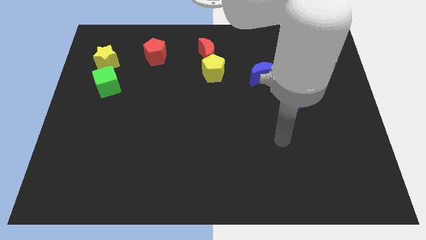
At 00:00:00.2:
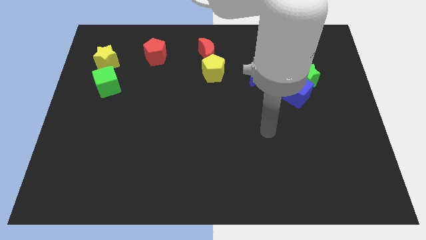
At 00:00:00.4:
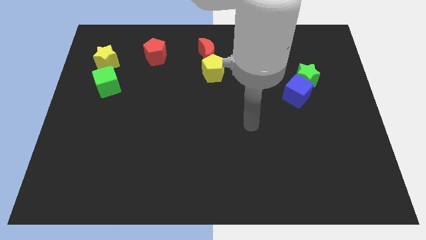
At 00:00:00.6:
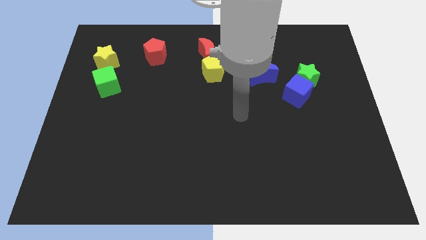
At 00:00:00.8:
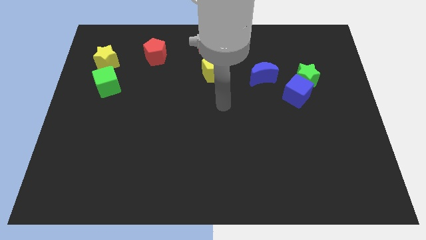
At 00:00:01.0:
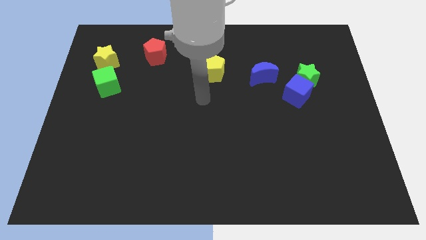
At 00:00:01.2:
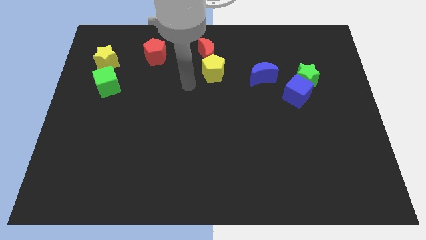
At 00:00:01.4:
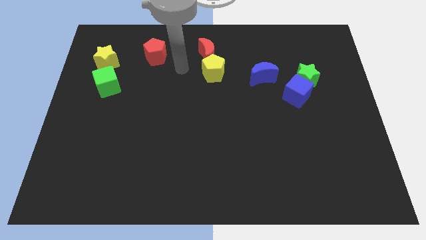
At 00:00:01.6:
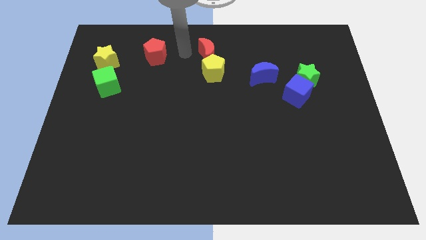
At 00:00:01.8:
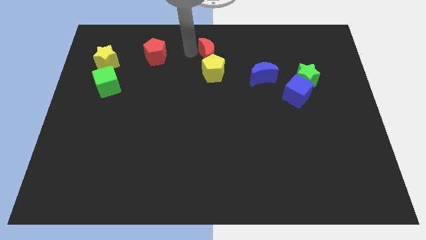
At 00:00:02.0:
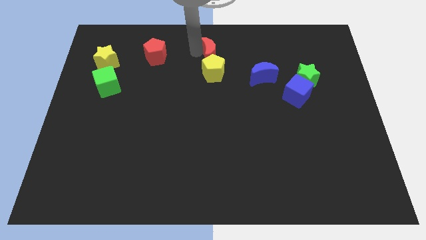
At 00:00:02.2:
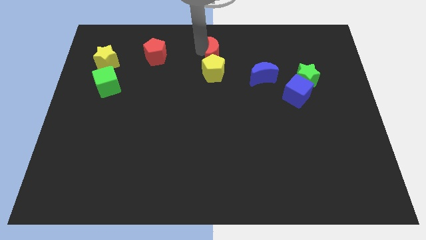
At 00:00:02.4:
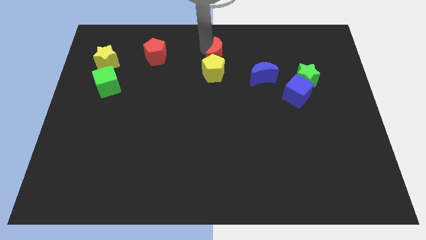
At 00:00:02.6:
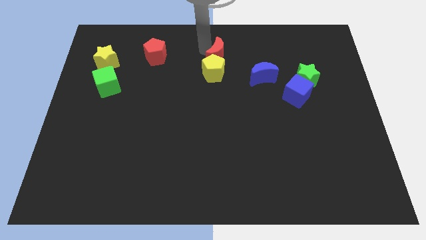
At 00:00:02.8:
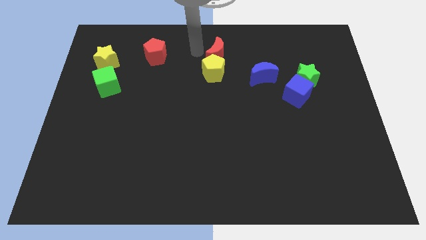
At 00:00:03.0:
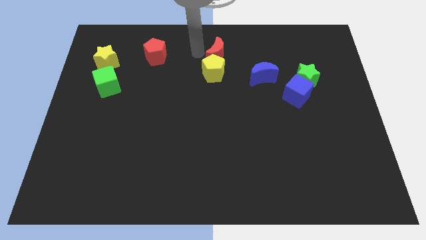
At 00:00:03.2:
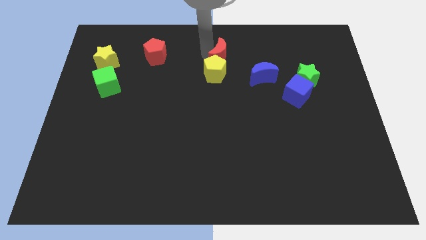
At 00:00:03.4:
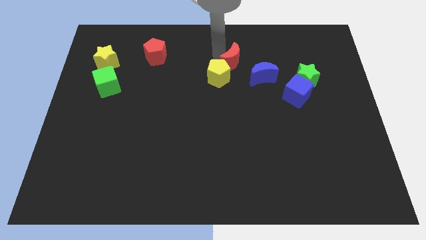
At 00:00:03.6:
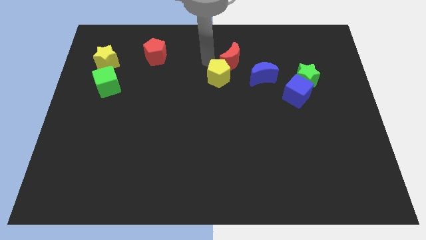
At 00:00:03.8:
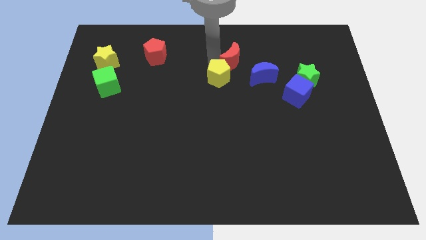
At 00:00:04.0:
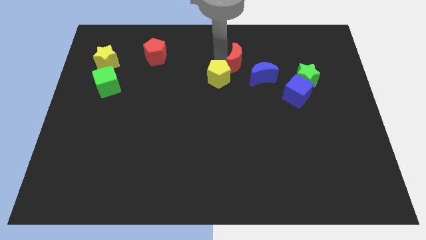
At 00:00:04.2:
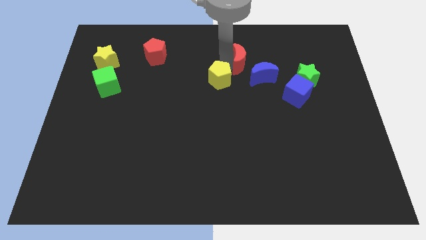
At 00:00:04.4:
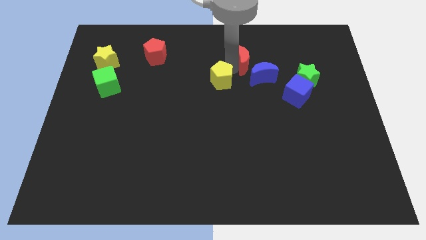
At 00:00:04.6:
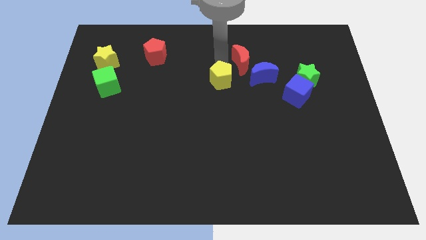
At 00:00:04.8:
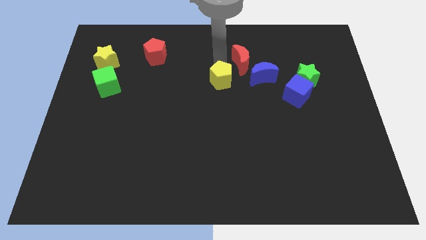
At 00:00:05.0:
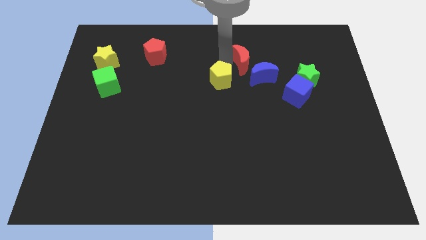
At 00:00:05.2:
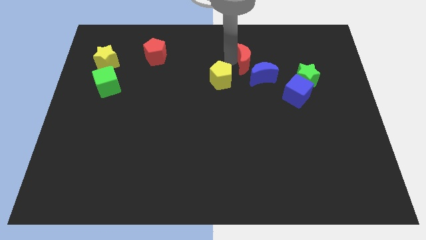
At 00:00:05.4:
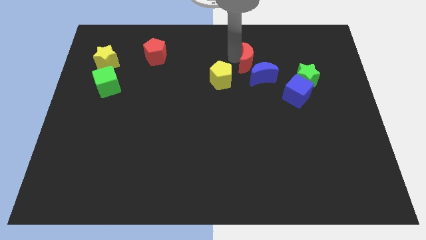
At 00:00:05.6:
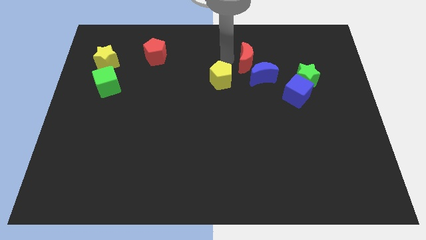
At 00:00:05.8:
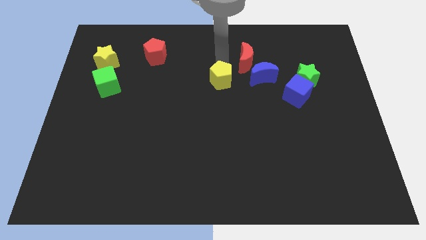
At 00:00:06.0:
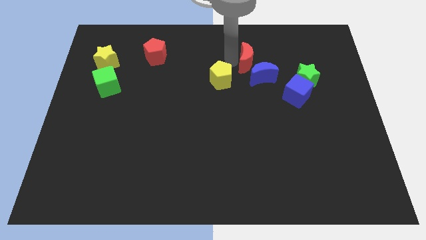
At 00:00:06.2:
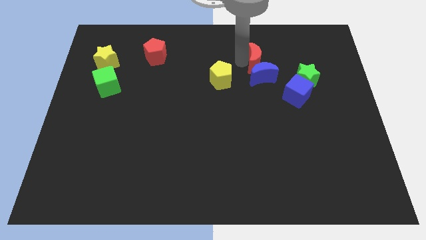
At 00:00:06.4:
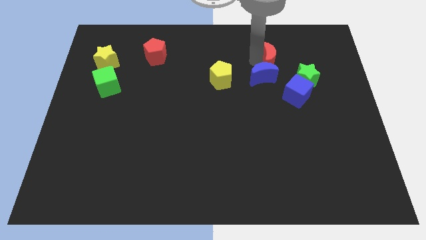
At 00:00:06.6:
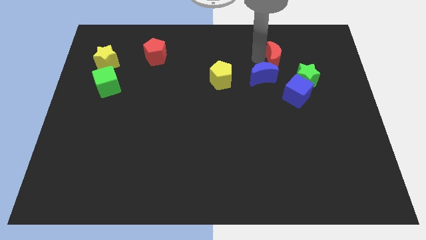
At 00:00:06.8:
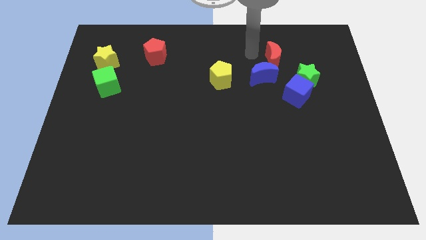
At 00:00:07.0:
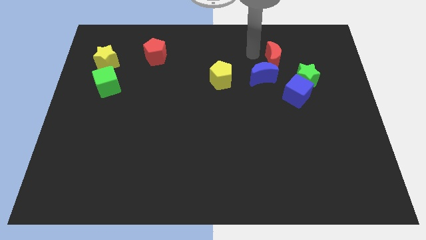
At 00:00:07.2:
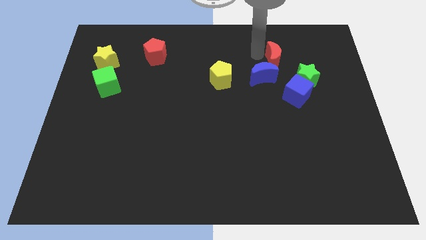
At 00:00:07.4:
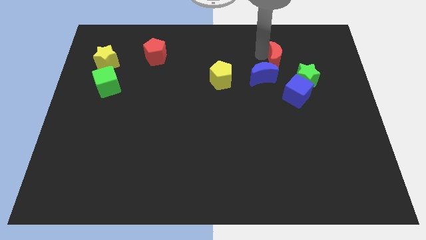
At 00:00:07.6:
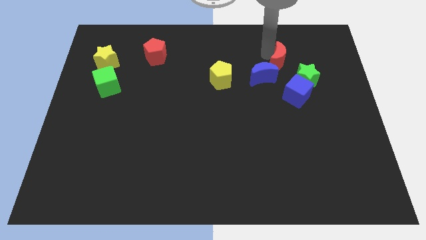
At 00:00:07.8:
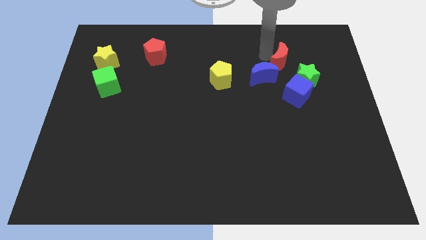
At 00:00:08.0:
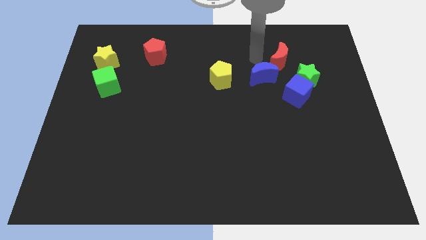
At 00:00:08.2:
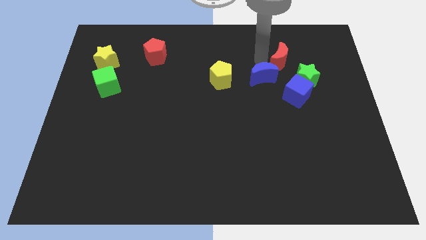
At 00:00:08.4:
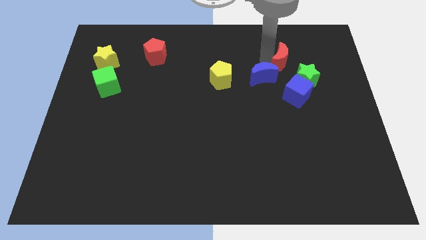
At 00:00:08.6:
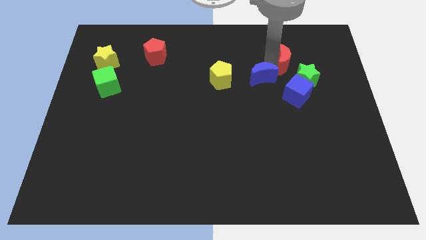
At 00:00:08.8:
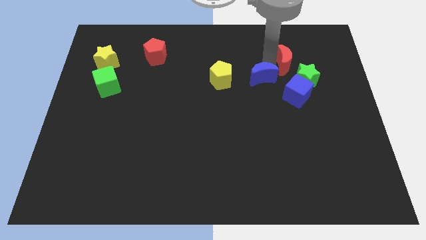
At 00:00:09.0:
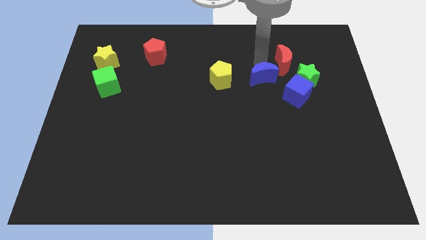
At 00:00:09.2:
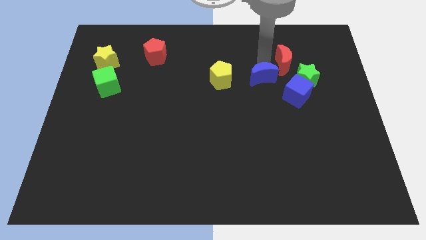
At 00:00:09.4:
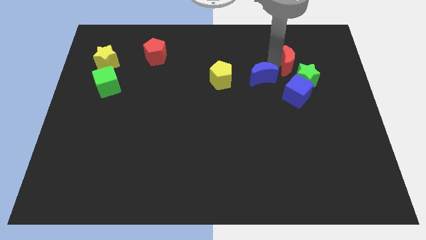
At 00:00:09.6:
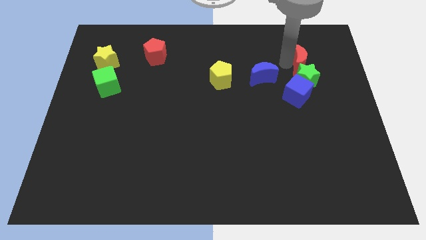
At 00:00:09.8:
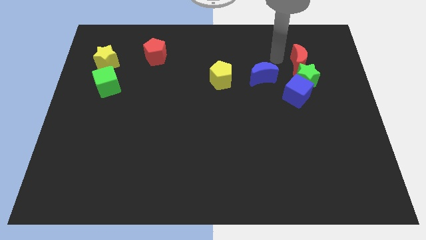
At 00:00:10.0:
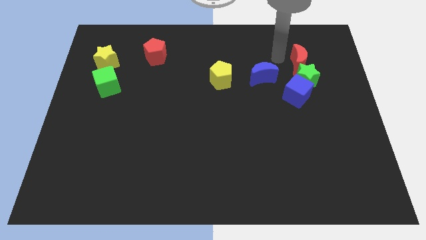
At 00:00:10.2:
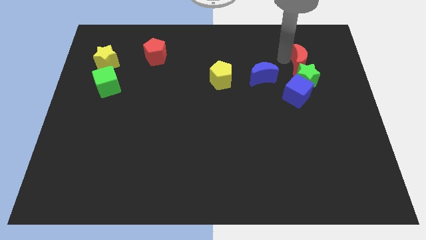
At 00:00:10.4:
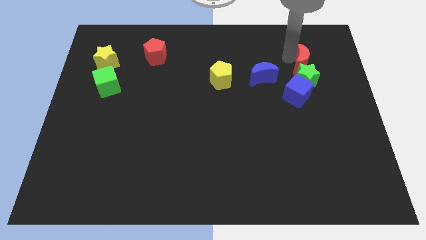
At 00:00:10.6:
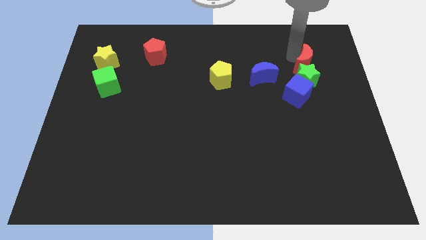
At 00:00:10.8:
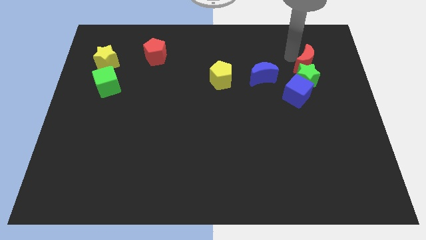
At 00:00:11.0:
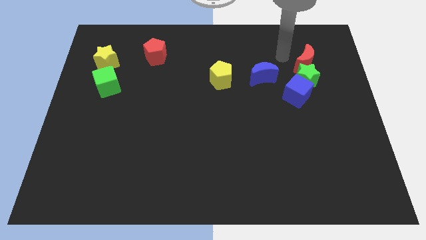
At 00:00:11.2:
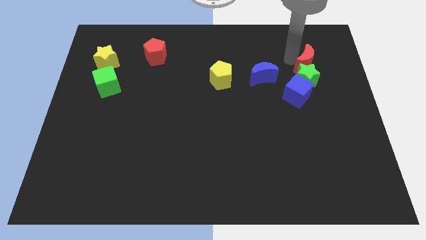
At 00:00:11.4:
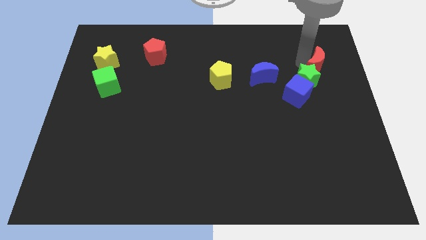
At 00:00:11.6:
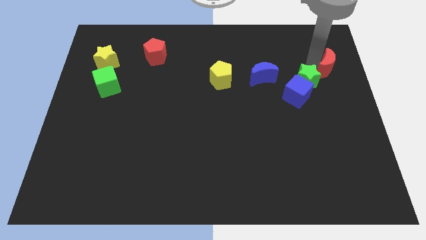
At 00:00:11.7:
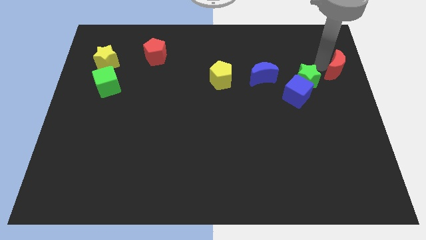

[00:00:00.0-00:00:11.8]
put the red moon to the right side of the board
